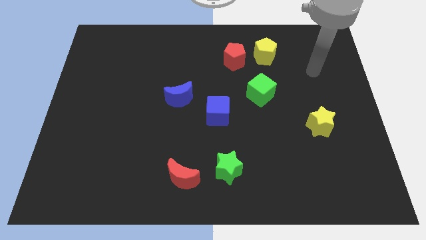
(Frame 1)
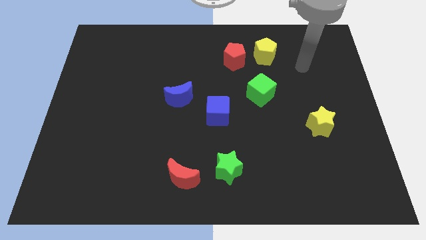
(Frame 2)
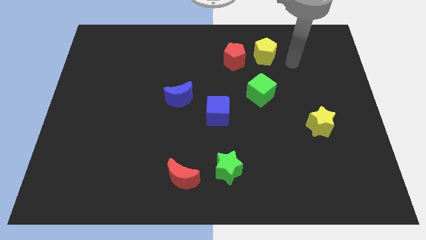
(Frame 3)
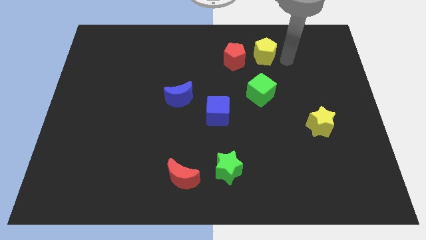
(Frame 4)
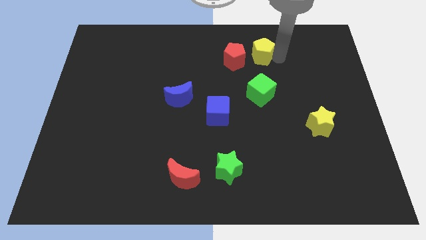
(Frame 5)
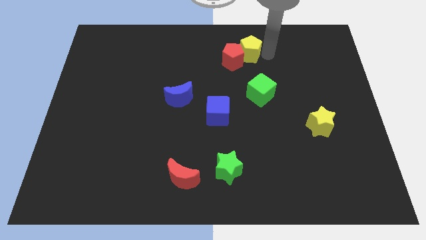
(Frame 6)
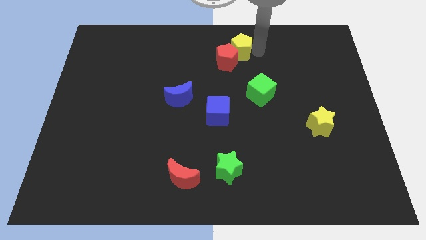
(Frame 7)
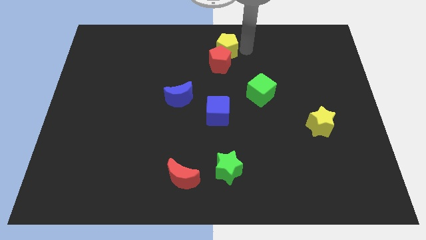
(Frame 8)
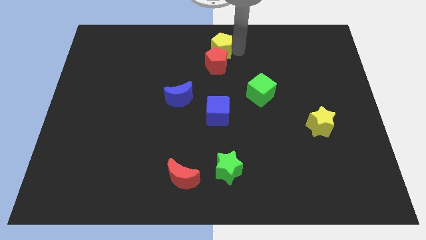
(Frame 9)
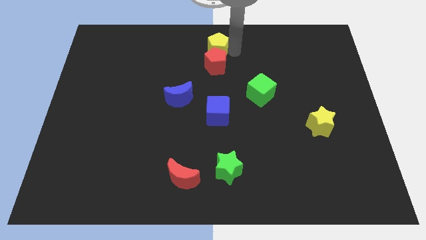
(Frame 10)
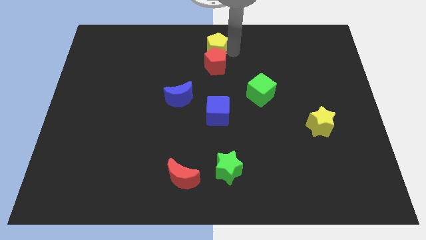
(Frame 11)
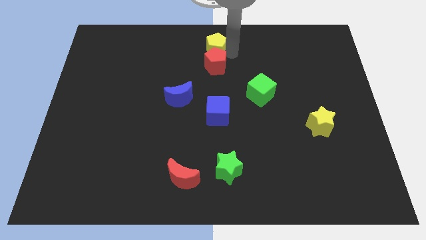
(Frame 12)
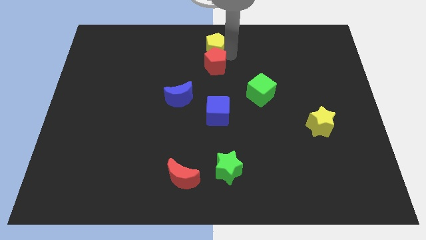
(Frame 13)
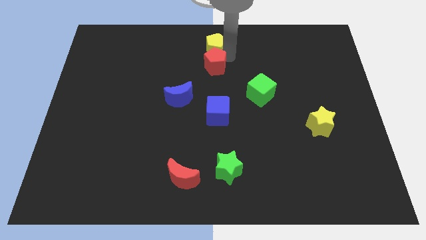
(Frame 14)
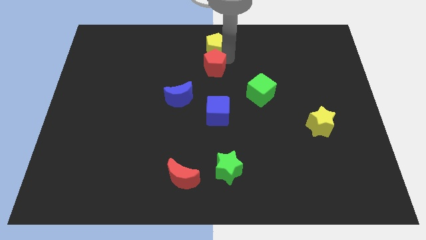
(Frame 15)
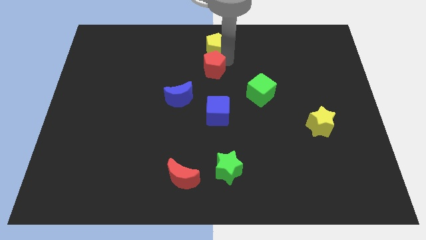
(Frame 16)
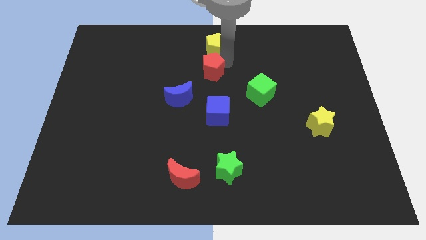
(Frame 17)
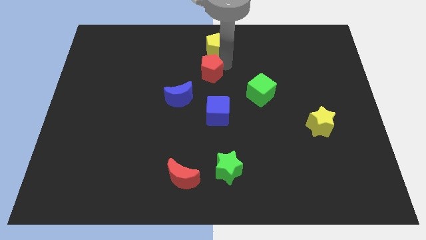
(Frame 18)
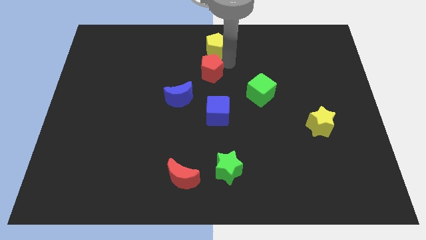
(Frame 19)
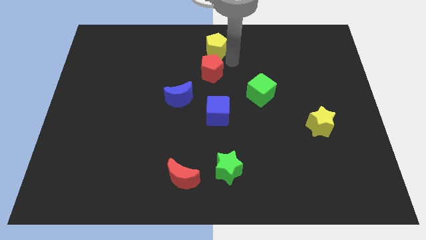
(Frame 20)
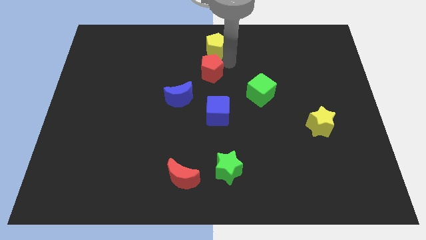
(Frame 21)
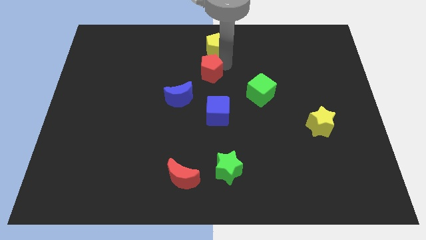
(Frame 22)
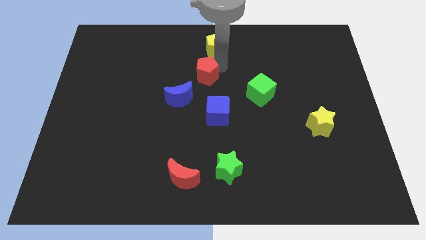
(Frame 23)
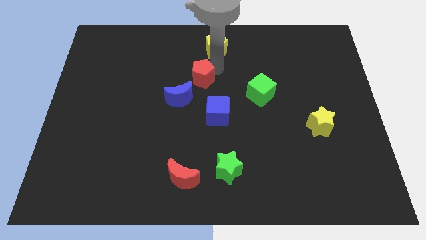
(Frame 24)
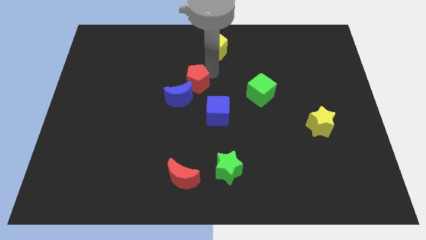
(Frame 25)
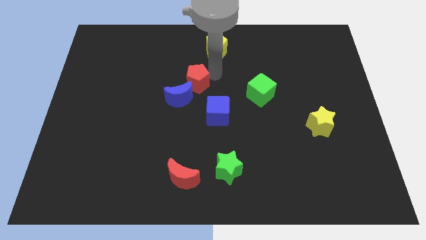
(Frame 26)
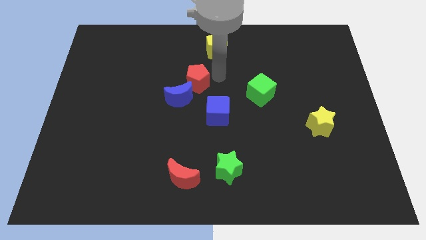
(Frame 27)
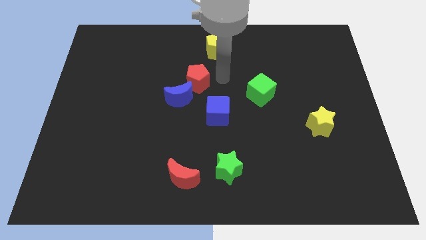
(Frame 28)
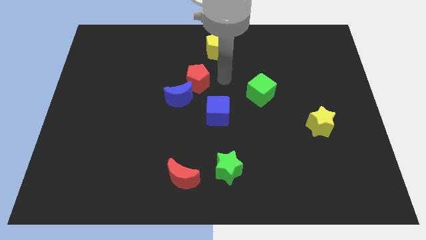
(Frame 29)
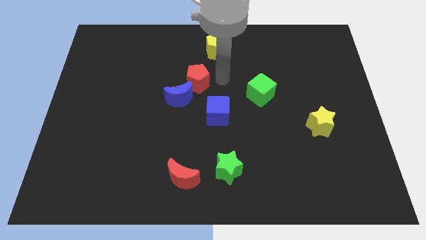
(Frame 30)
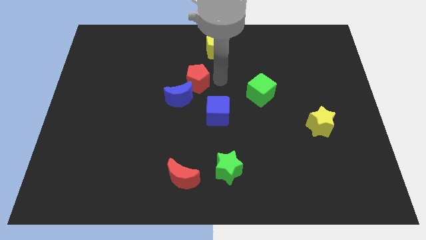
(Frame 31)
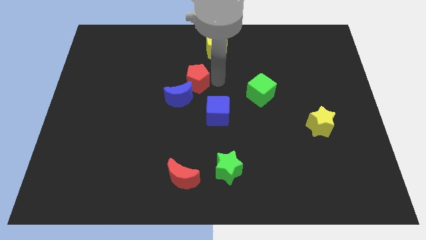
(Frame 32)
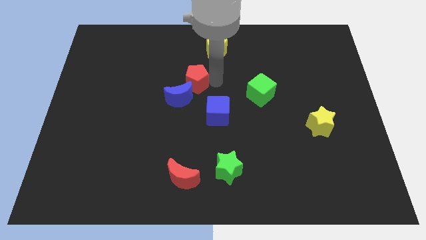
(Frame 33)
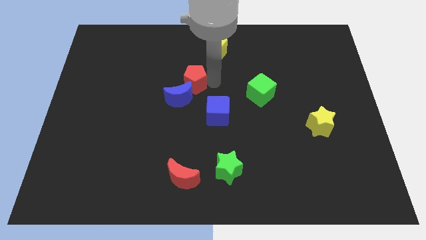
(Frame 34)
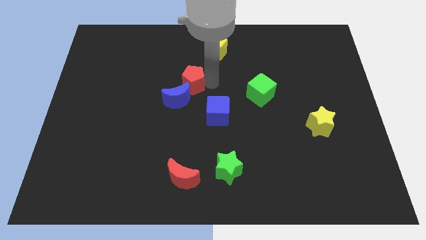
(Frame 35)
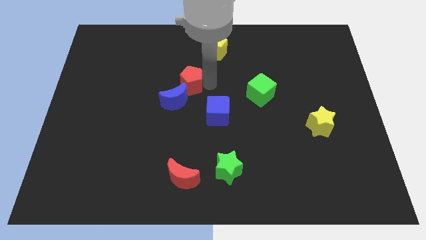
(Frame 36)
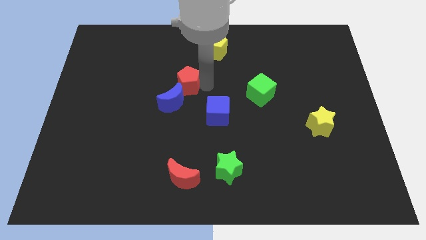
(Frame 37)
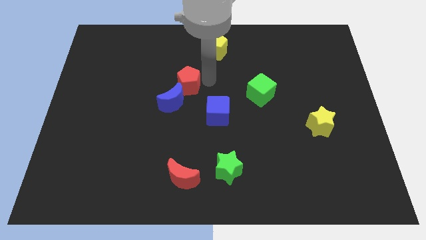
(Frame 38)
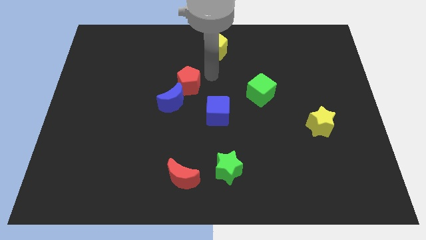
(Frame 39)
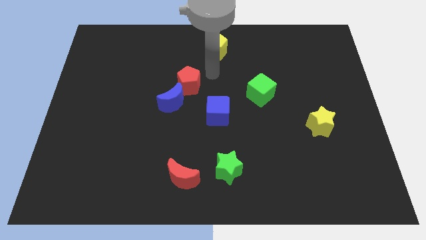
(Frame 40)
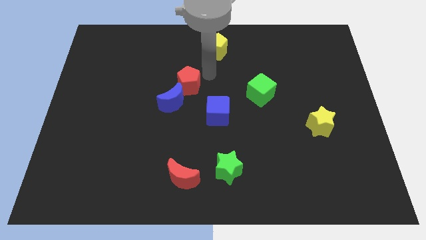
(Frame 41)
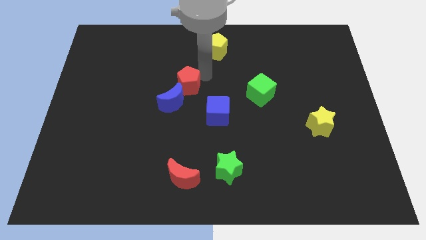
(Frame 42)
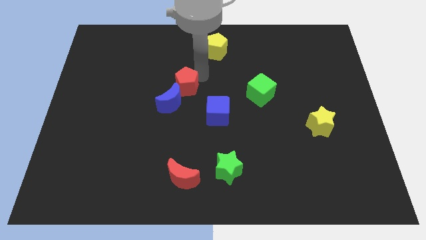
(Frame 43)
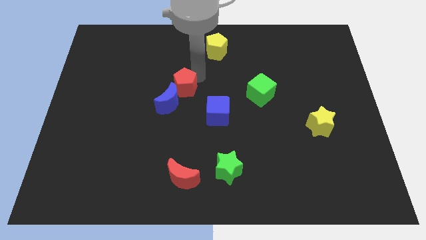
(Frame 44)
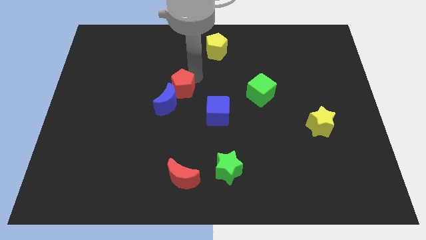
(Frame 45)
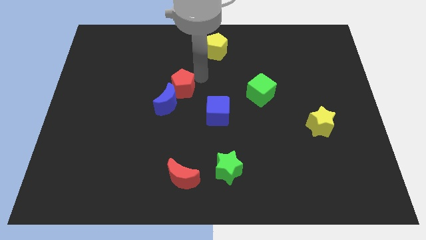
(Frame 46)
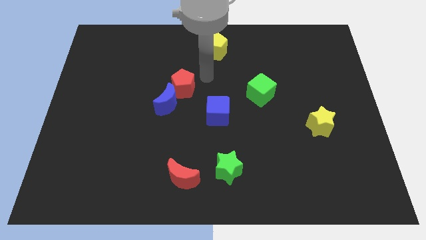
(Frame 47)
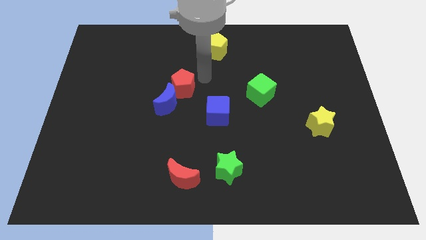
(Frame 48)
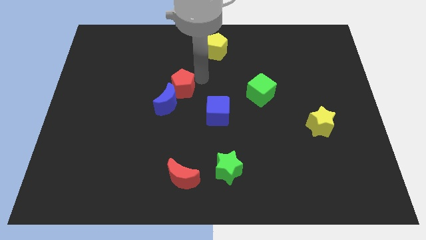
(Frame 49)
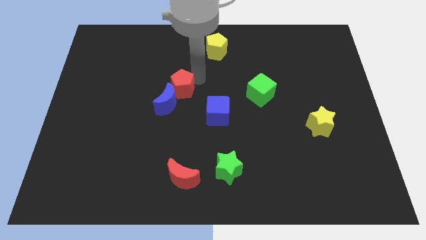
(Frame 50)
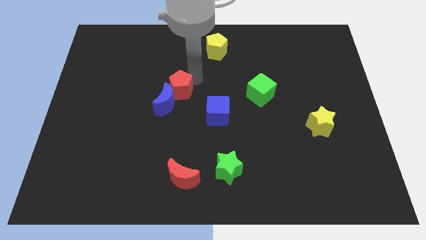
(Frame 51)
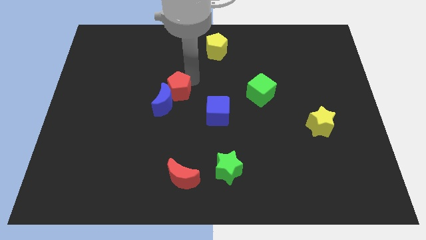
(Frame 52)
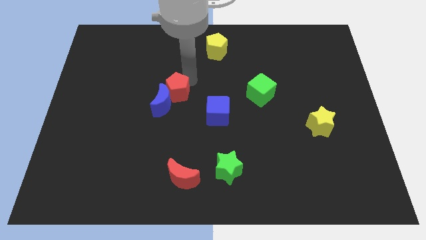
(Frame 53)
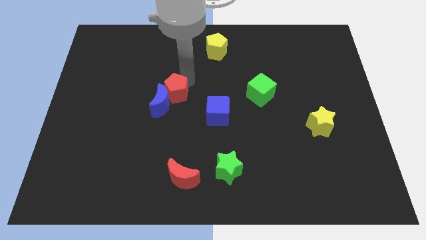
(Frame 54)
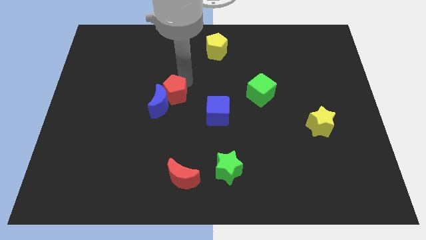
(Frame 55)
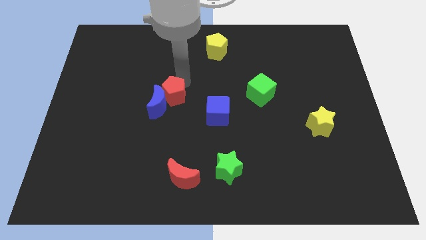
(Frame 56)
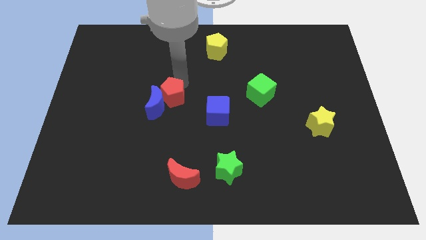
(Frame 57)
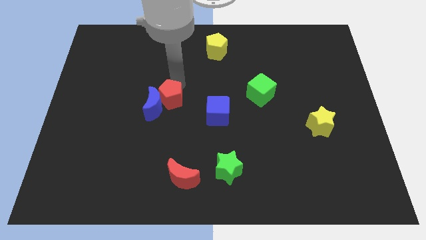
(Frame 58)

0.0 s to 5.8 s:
move the red pentagon just left of the blue cube
